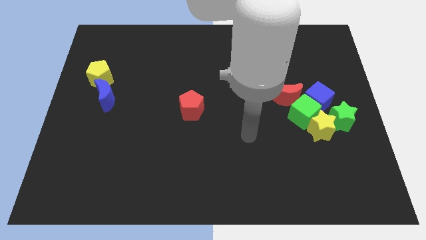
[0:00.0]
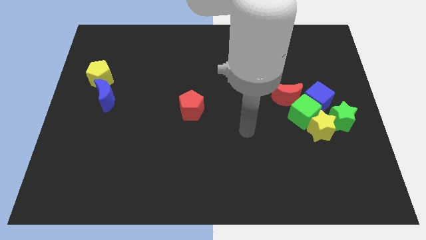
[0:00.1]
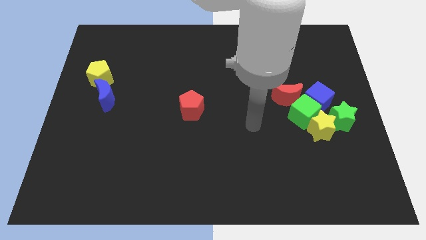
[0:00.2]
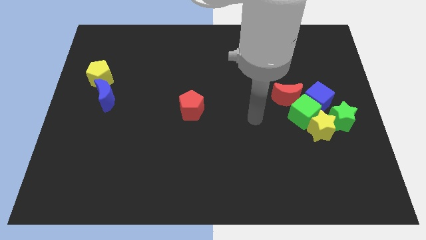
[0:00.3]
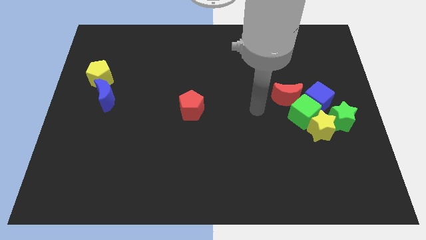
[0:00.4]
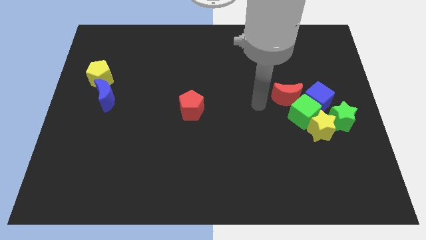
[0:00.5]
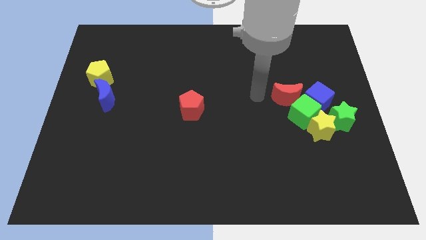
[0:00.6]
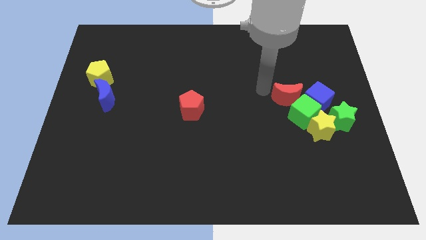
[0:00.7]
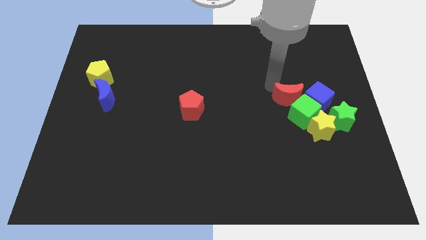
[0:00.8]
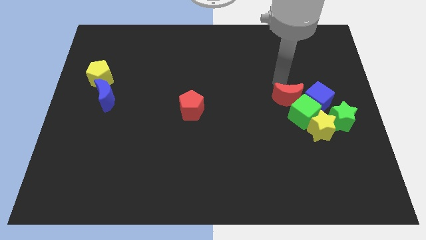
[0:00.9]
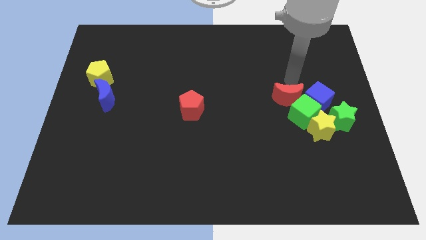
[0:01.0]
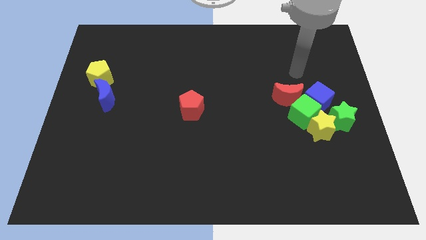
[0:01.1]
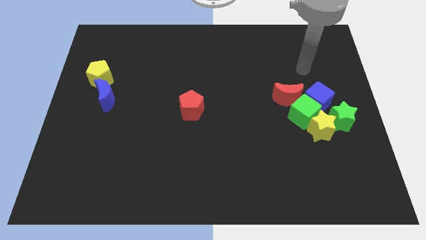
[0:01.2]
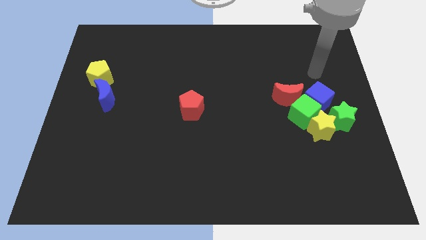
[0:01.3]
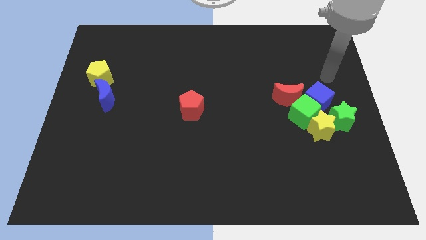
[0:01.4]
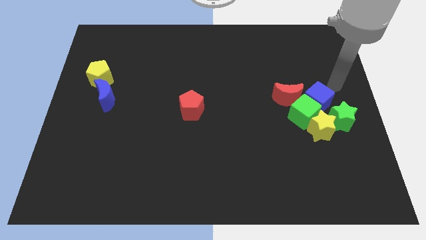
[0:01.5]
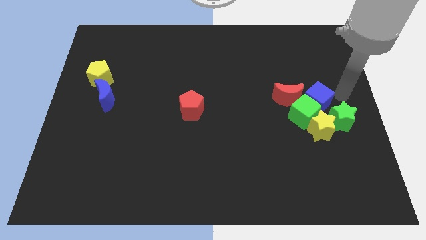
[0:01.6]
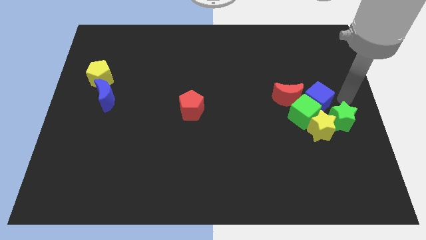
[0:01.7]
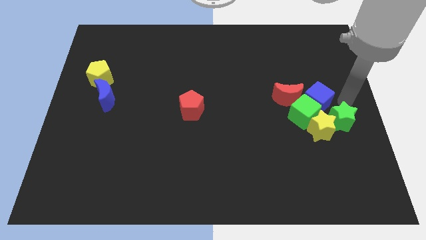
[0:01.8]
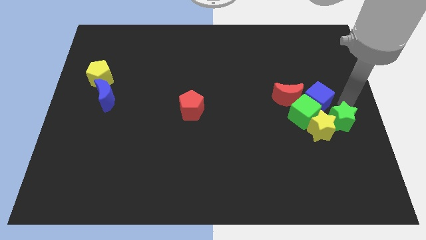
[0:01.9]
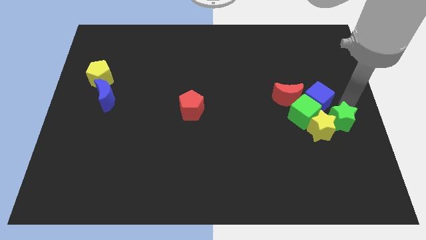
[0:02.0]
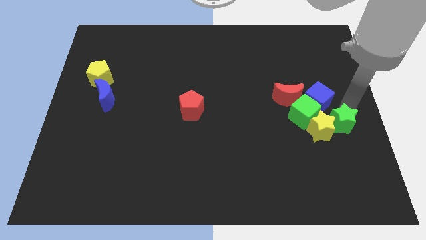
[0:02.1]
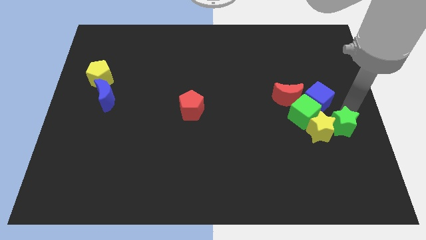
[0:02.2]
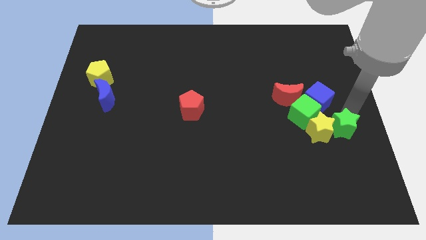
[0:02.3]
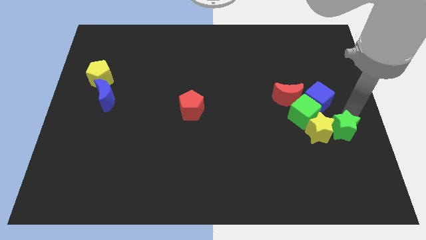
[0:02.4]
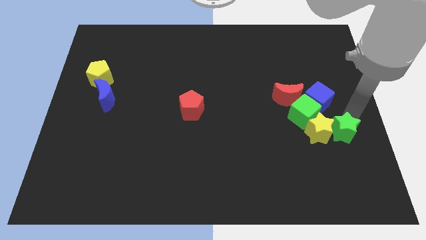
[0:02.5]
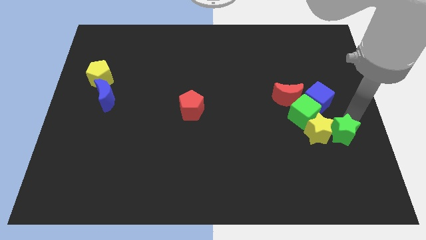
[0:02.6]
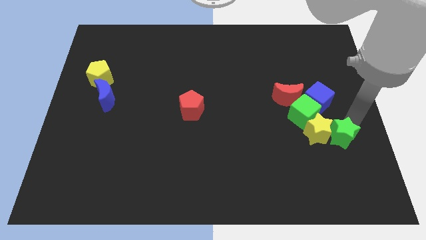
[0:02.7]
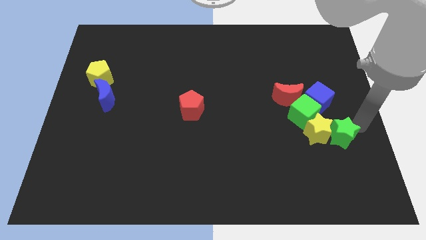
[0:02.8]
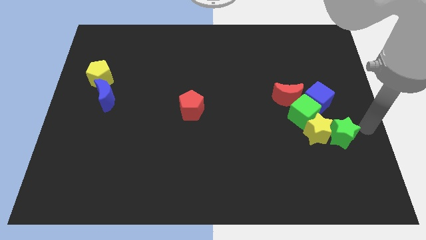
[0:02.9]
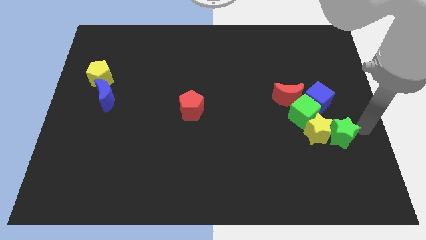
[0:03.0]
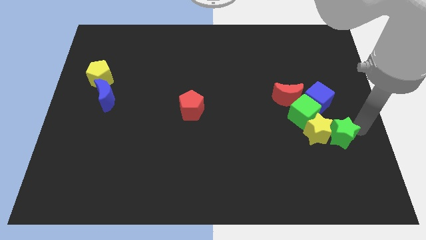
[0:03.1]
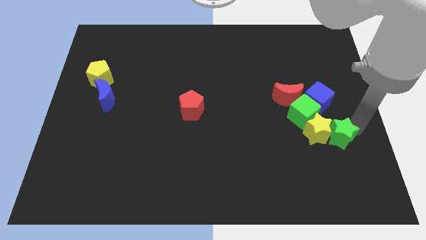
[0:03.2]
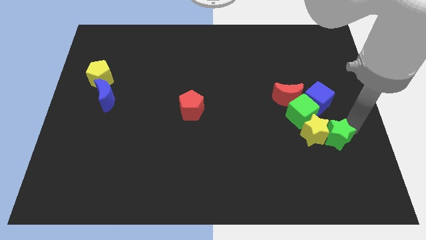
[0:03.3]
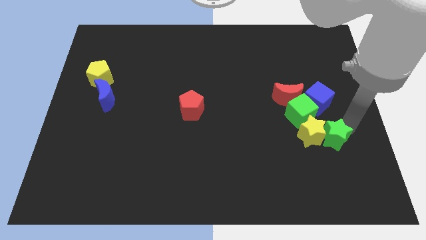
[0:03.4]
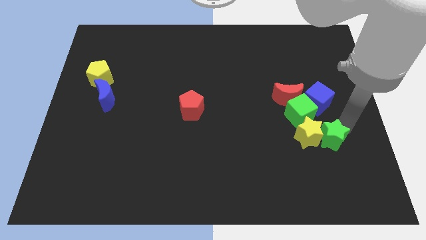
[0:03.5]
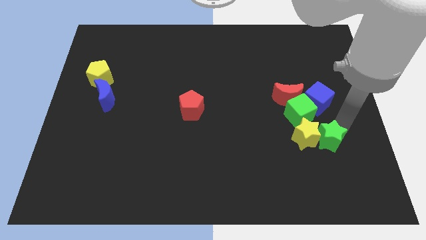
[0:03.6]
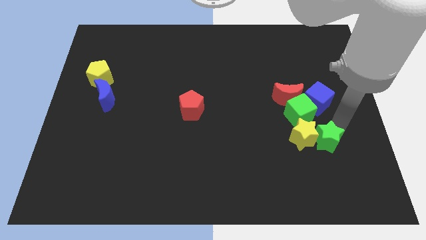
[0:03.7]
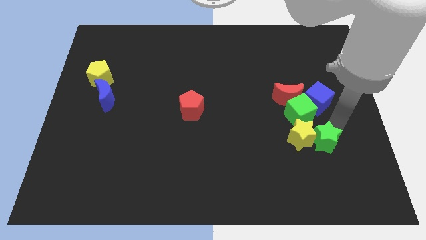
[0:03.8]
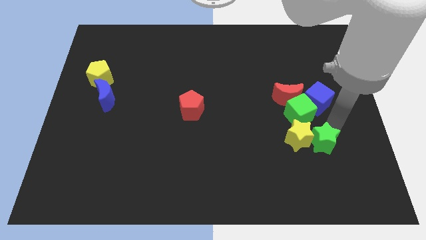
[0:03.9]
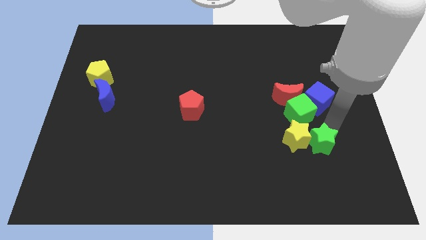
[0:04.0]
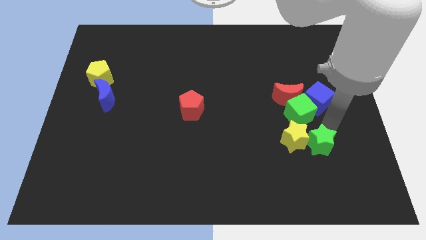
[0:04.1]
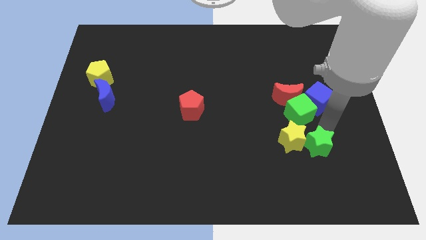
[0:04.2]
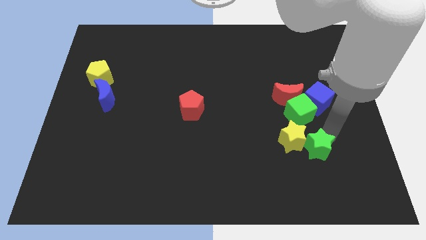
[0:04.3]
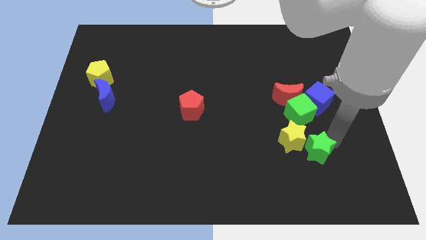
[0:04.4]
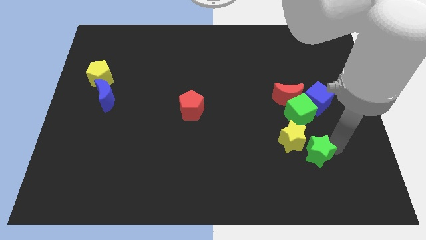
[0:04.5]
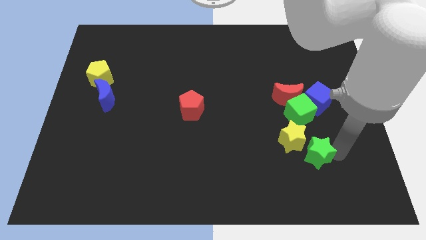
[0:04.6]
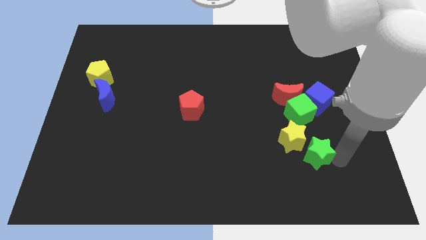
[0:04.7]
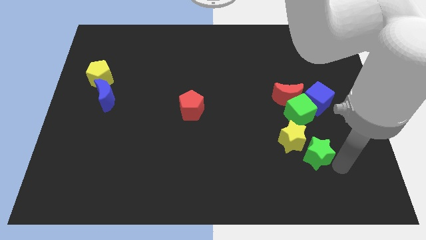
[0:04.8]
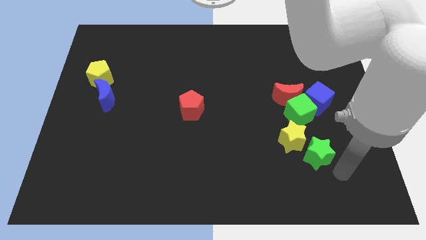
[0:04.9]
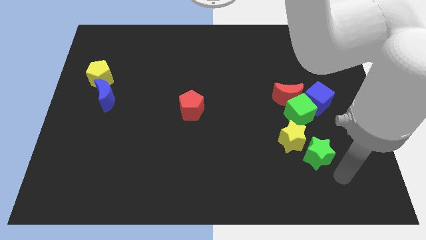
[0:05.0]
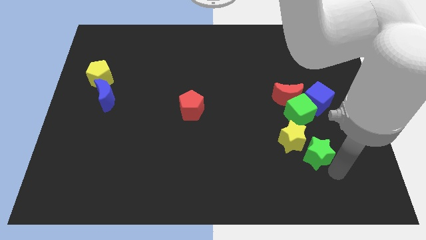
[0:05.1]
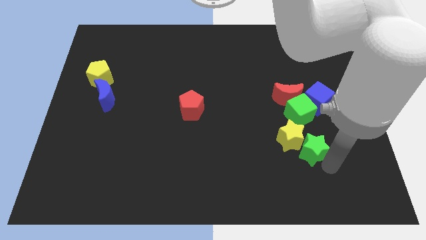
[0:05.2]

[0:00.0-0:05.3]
move the green star to the bottom of the red moon

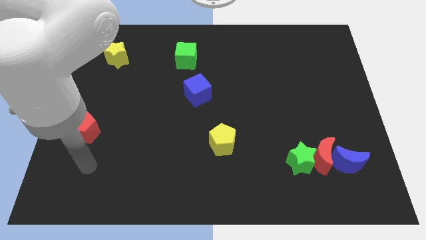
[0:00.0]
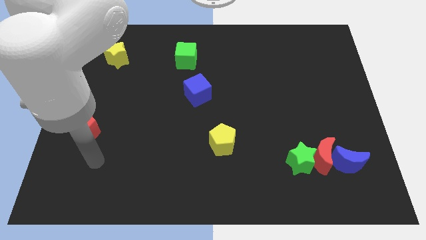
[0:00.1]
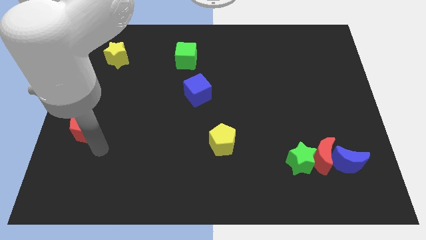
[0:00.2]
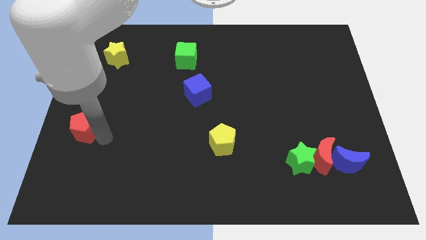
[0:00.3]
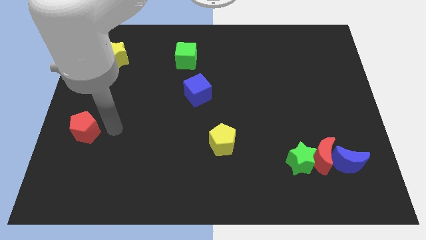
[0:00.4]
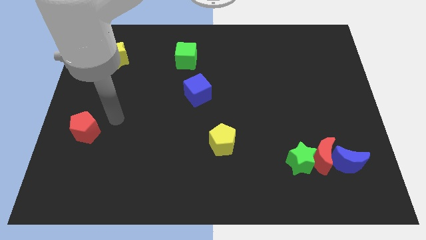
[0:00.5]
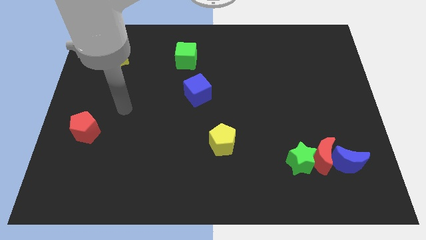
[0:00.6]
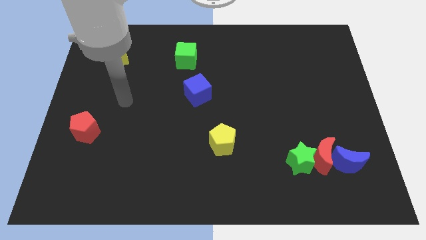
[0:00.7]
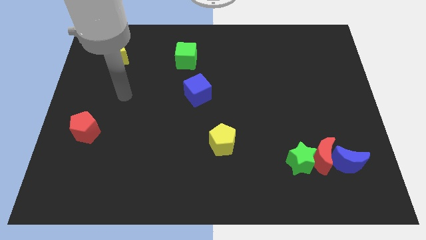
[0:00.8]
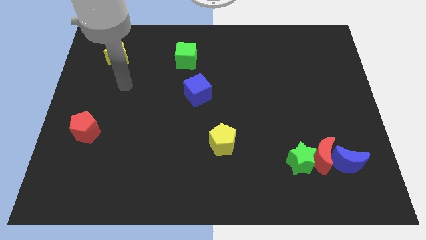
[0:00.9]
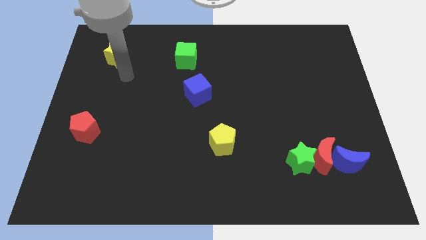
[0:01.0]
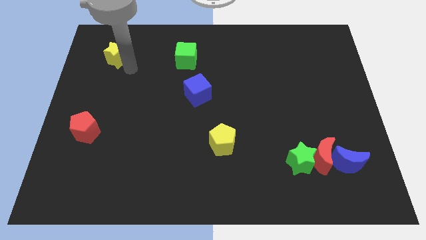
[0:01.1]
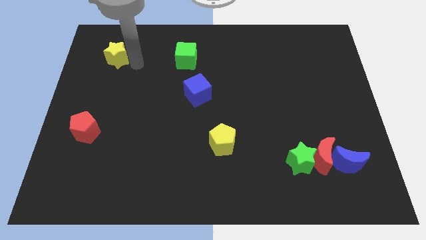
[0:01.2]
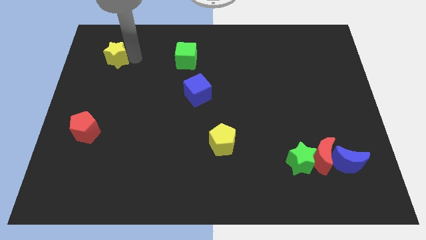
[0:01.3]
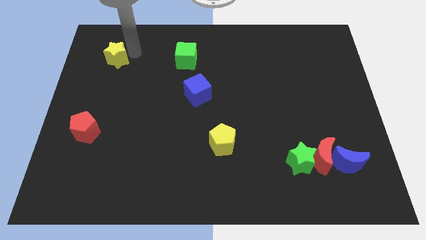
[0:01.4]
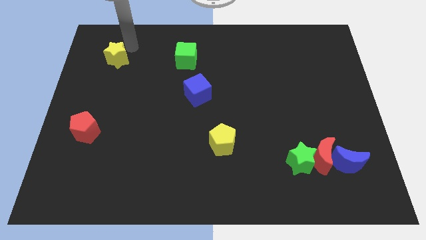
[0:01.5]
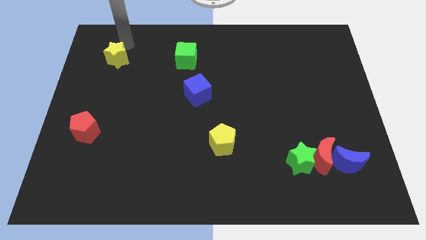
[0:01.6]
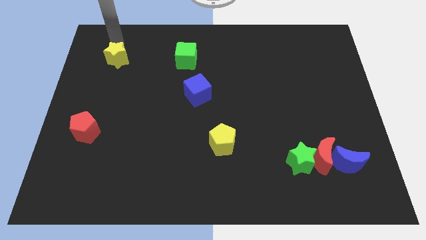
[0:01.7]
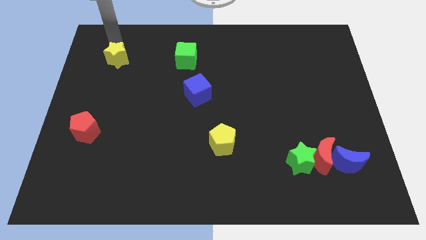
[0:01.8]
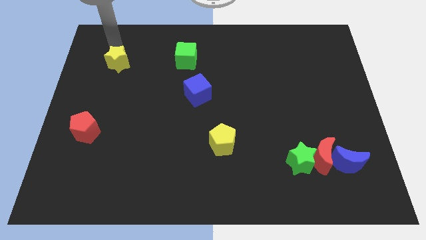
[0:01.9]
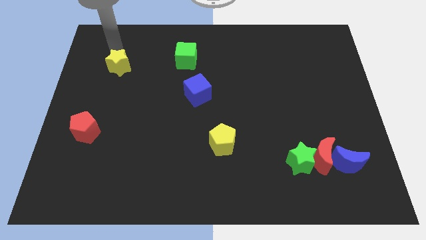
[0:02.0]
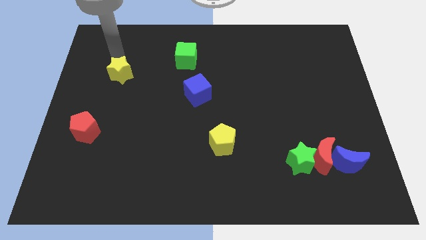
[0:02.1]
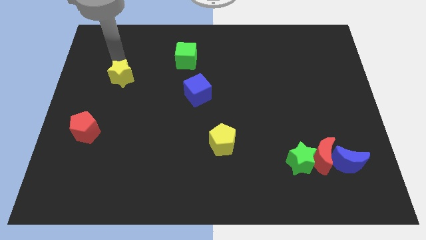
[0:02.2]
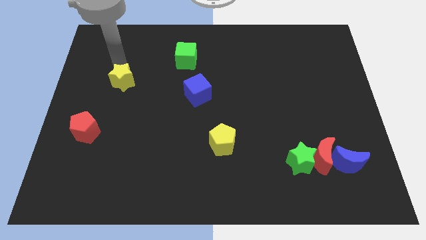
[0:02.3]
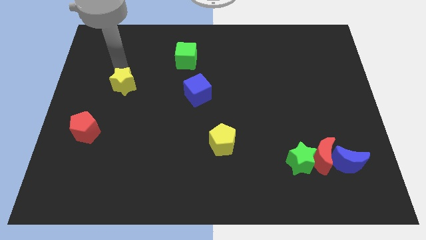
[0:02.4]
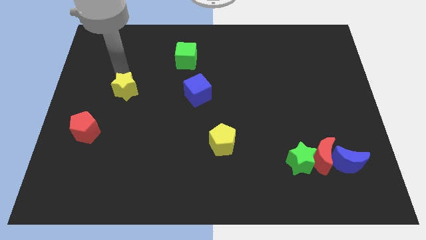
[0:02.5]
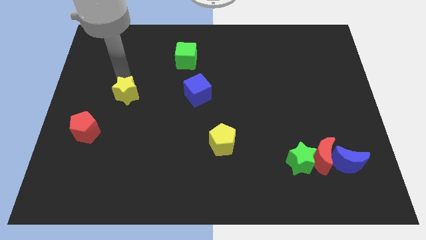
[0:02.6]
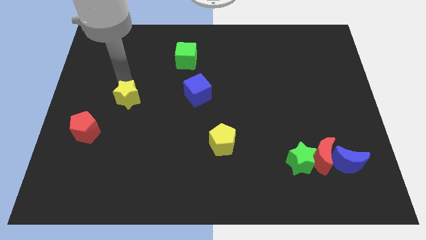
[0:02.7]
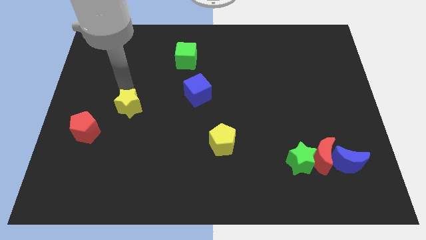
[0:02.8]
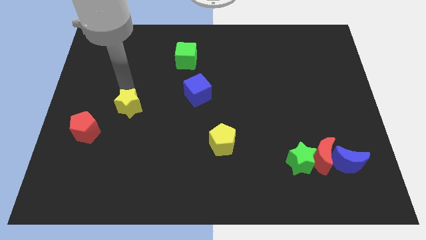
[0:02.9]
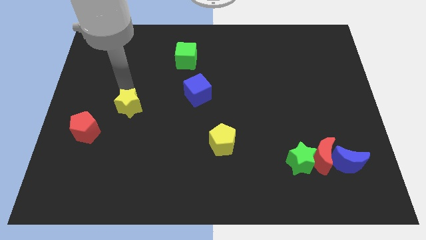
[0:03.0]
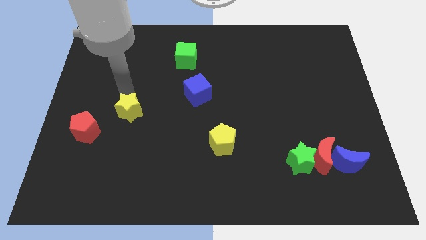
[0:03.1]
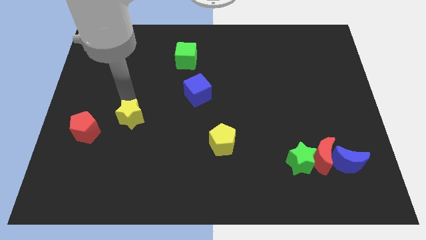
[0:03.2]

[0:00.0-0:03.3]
slide the yellow star to the right of the red pentagon
